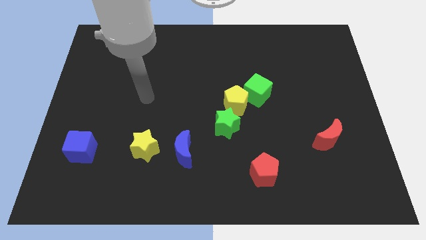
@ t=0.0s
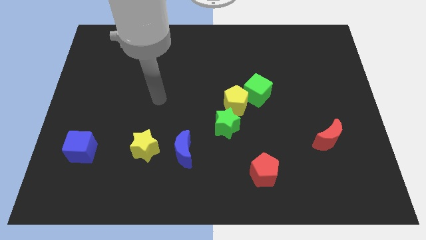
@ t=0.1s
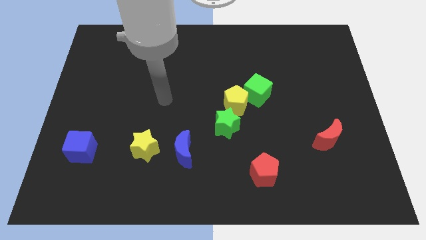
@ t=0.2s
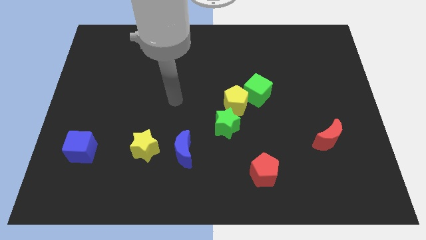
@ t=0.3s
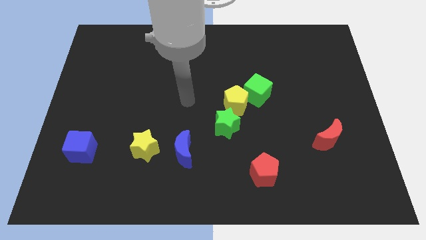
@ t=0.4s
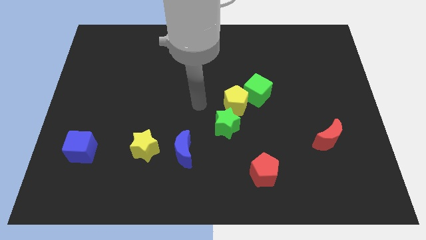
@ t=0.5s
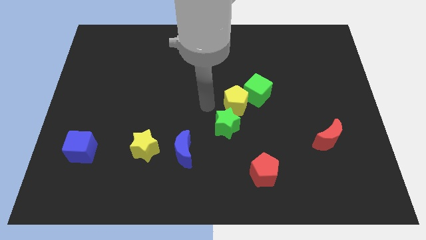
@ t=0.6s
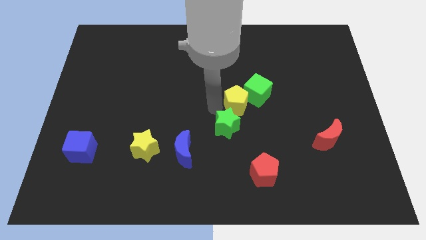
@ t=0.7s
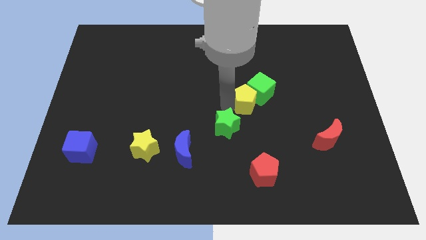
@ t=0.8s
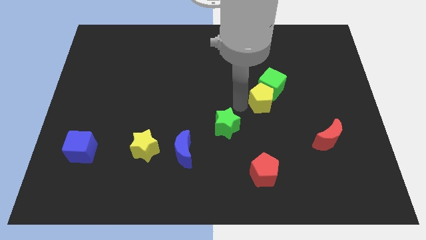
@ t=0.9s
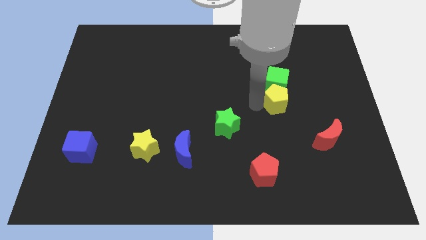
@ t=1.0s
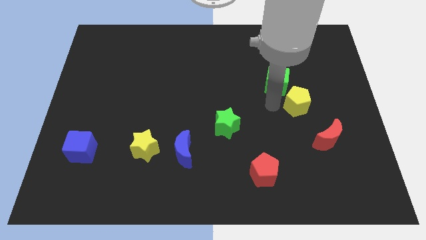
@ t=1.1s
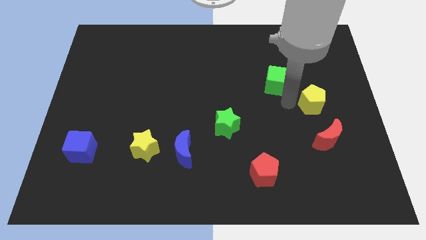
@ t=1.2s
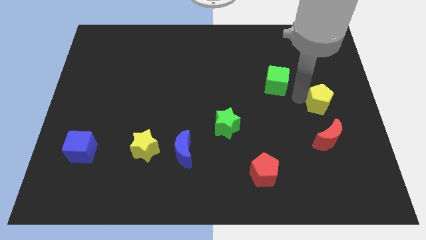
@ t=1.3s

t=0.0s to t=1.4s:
separate the green cube from the yellow pentagon

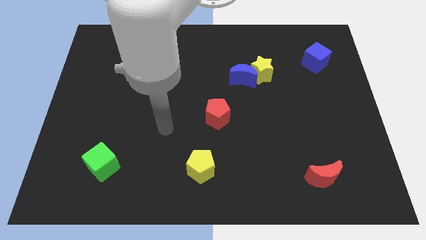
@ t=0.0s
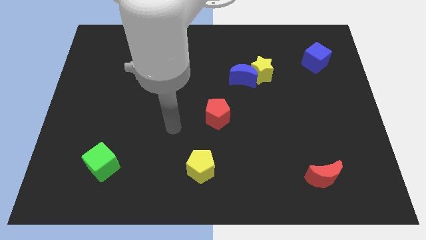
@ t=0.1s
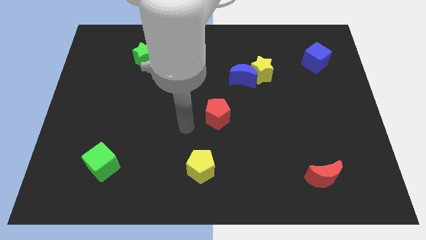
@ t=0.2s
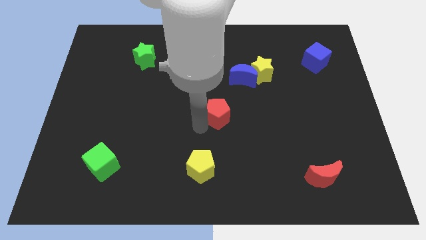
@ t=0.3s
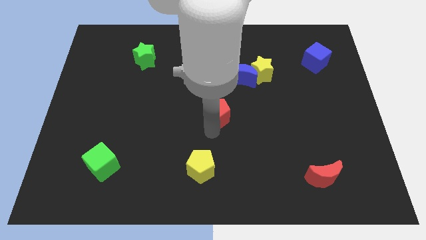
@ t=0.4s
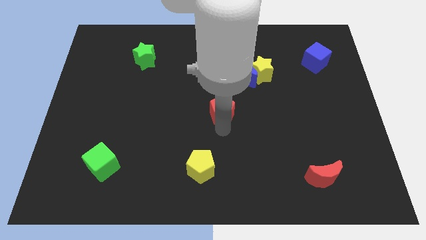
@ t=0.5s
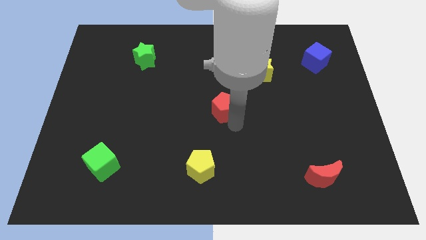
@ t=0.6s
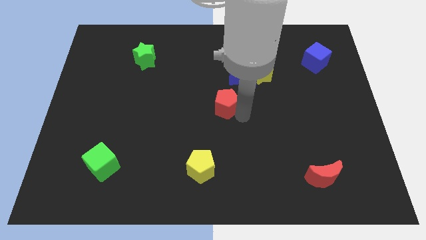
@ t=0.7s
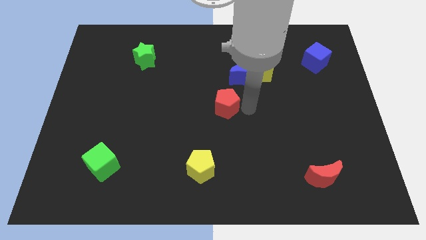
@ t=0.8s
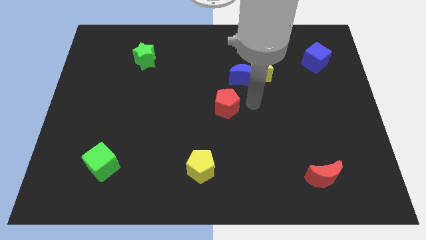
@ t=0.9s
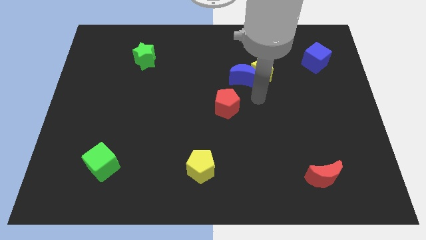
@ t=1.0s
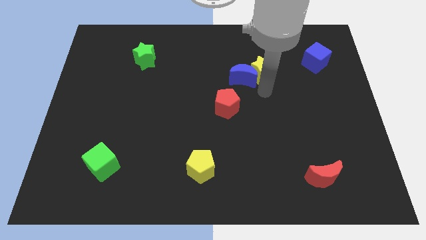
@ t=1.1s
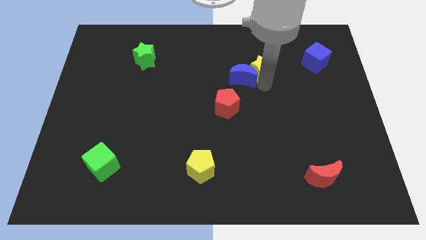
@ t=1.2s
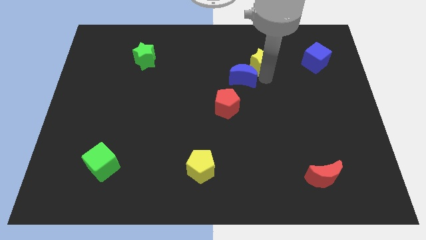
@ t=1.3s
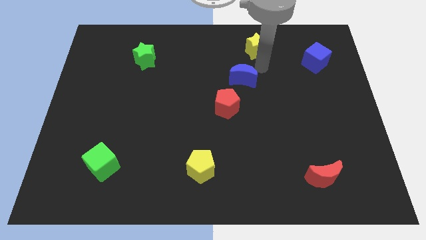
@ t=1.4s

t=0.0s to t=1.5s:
move the blue moon away from the yellow star

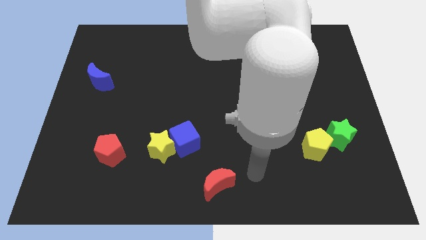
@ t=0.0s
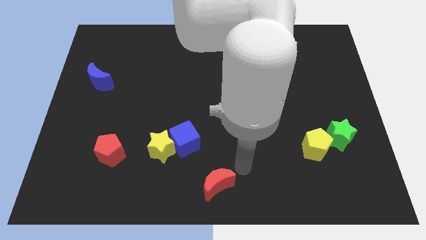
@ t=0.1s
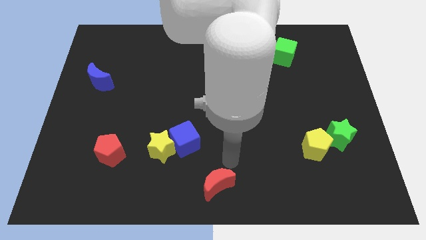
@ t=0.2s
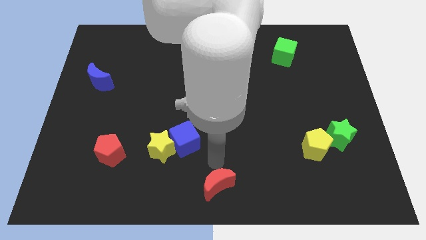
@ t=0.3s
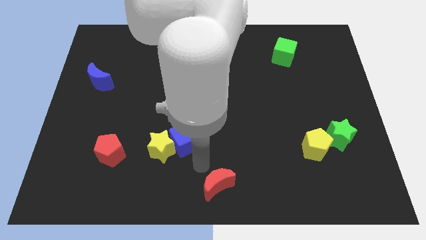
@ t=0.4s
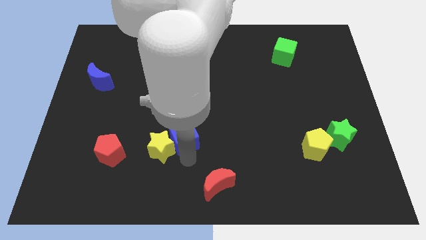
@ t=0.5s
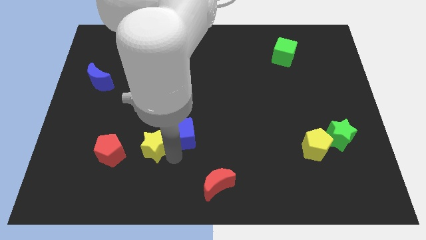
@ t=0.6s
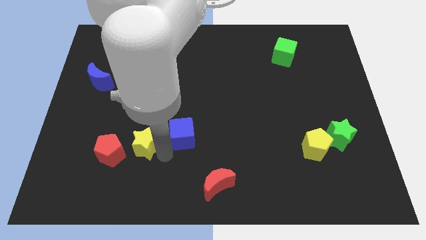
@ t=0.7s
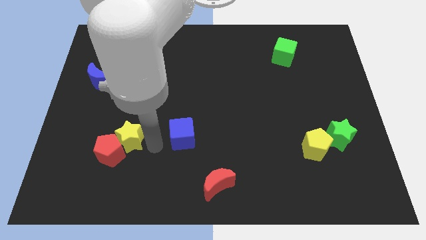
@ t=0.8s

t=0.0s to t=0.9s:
separate the blue cube from the yellow star

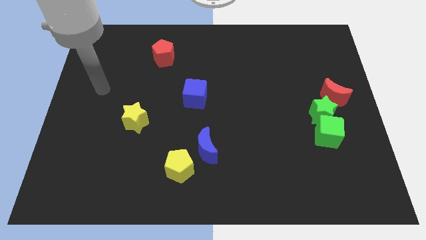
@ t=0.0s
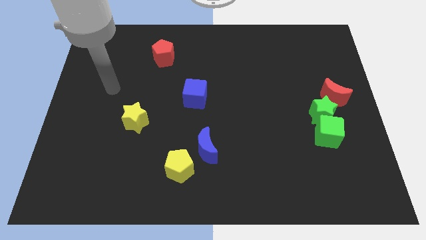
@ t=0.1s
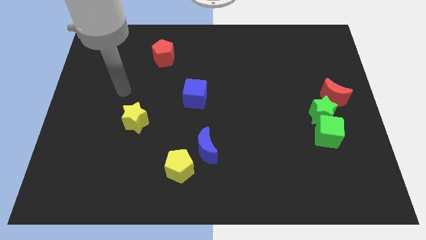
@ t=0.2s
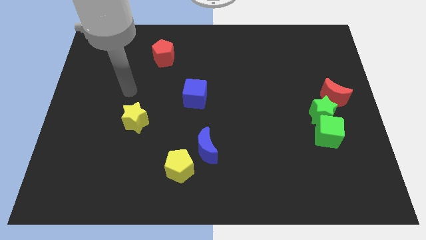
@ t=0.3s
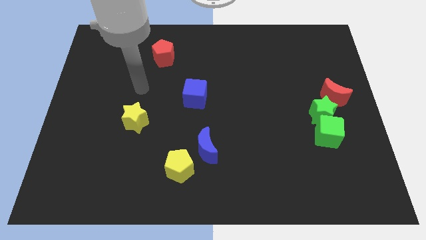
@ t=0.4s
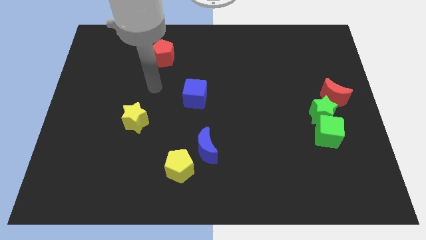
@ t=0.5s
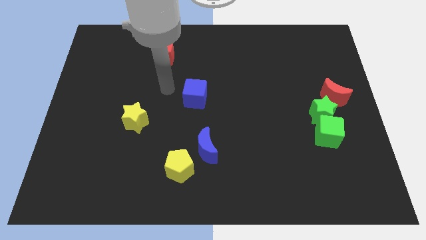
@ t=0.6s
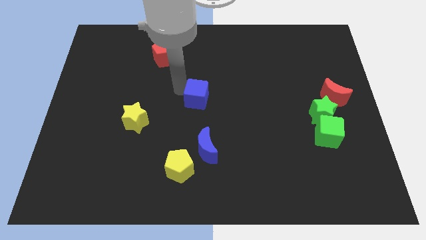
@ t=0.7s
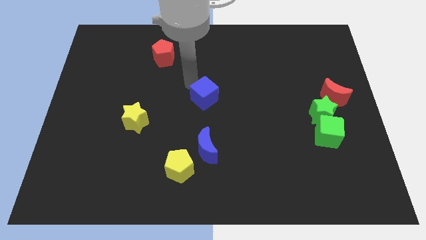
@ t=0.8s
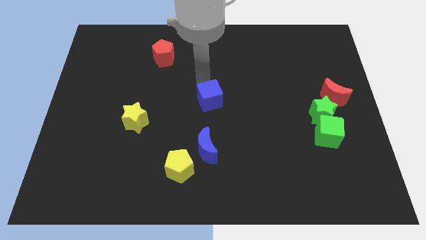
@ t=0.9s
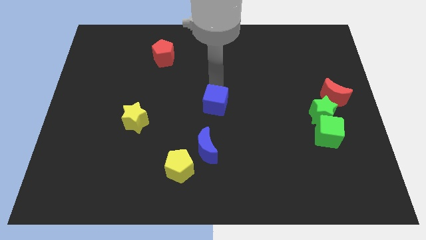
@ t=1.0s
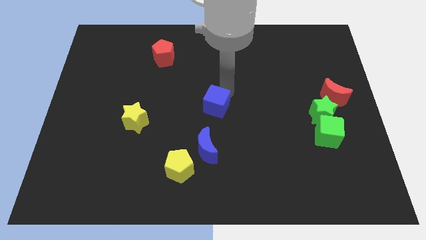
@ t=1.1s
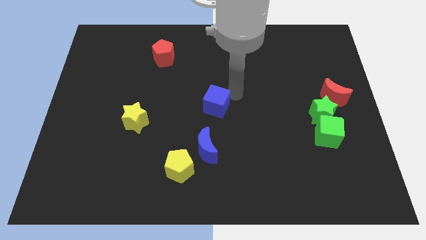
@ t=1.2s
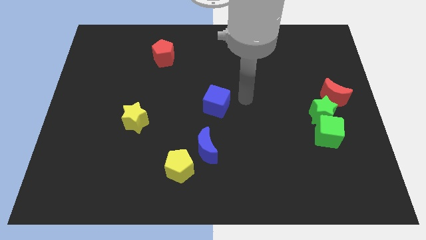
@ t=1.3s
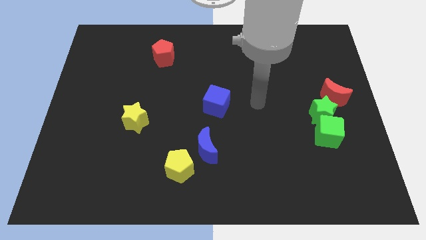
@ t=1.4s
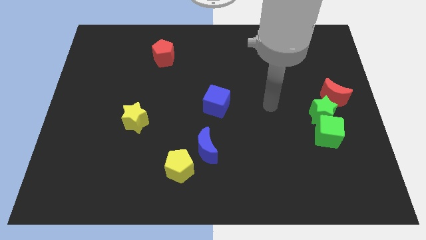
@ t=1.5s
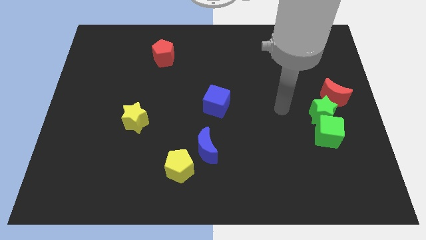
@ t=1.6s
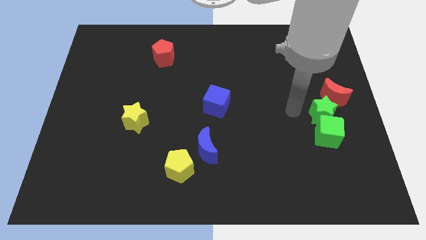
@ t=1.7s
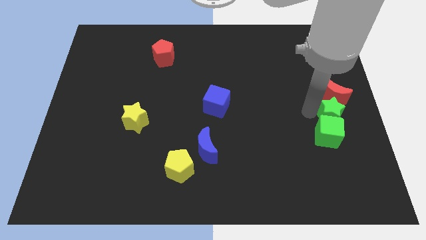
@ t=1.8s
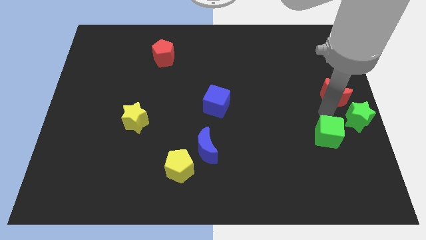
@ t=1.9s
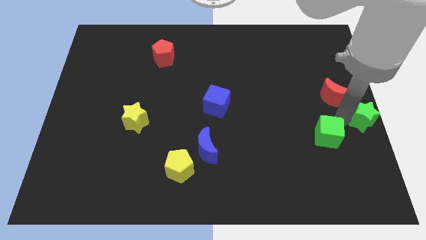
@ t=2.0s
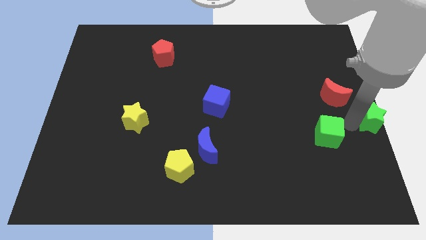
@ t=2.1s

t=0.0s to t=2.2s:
pull the green cube apart from the green star

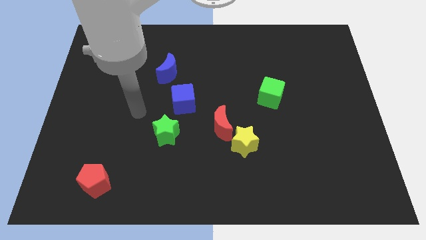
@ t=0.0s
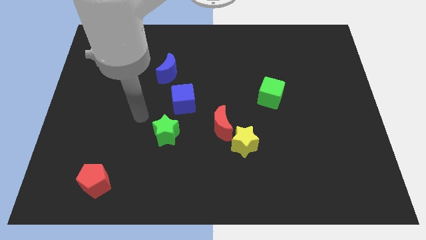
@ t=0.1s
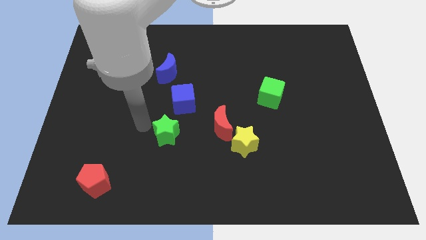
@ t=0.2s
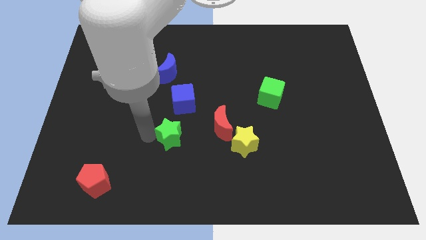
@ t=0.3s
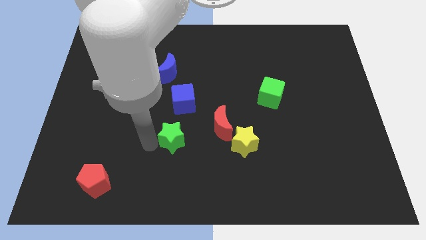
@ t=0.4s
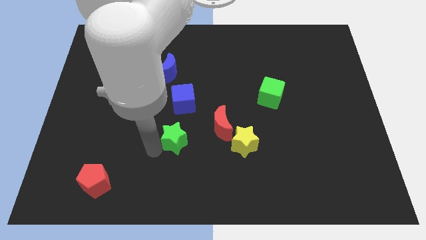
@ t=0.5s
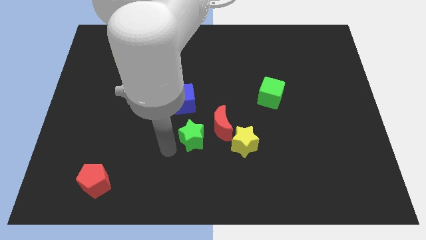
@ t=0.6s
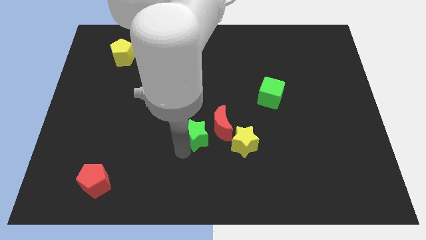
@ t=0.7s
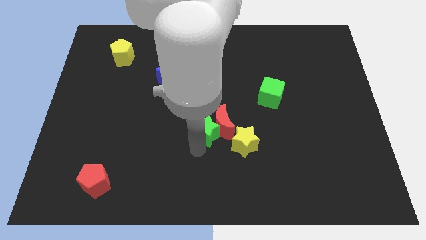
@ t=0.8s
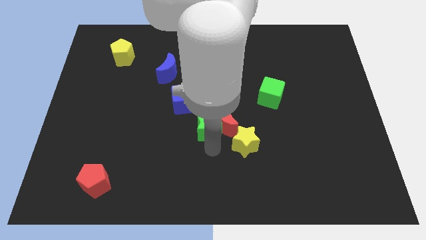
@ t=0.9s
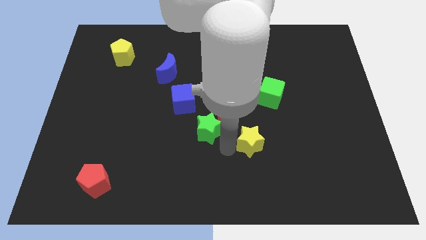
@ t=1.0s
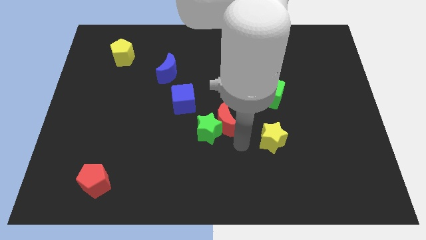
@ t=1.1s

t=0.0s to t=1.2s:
pull the red moon apart from the yellow star

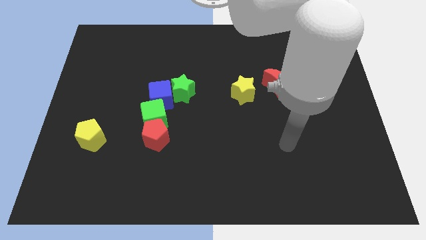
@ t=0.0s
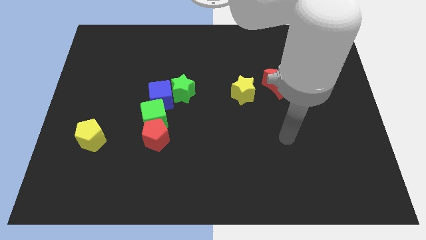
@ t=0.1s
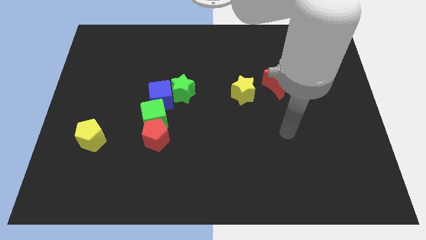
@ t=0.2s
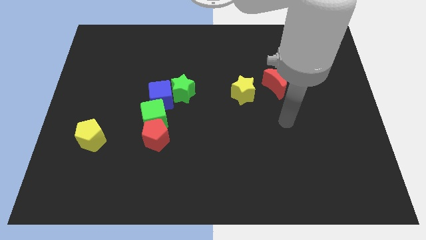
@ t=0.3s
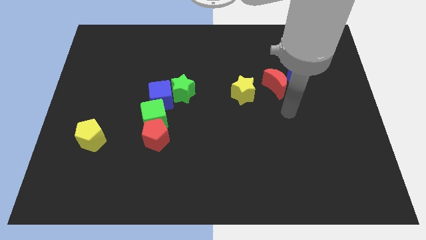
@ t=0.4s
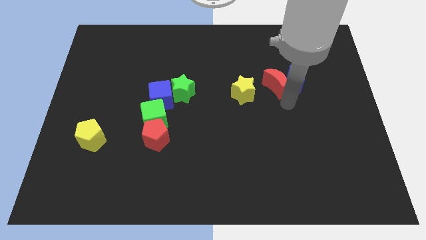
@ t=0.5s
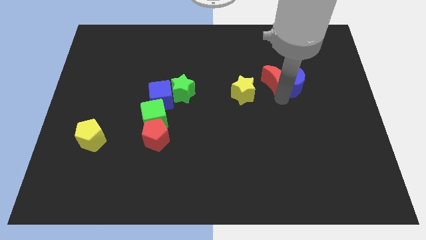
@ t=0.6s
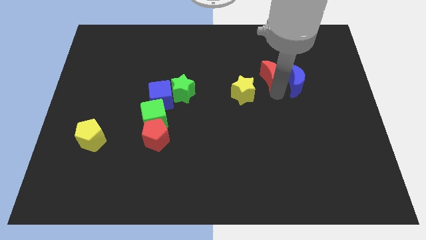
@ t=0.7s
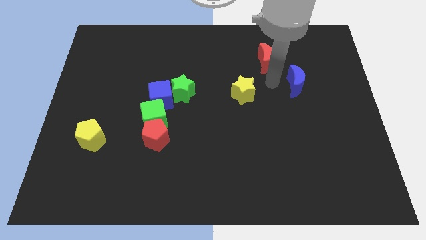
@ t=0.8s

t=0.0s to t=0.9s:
move the blue moon away from the red moon

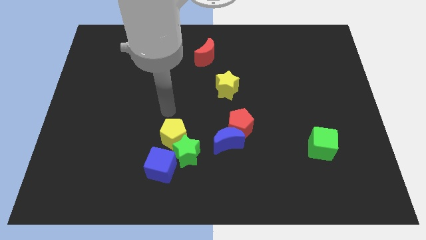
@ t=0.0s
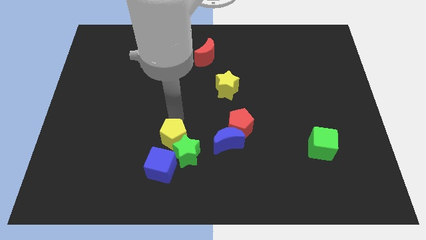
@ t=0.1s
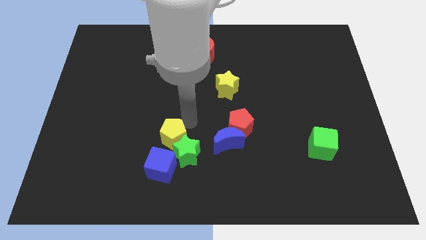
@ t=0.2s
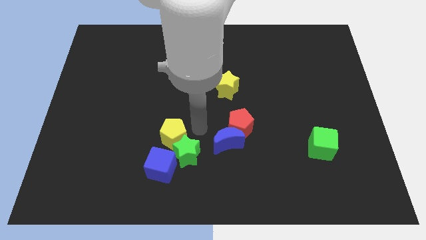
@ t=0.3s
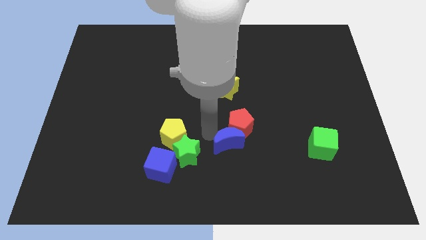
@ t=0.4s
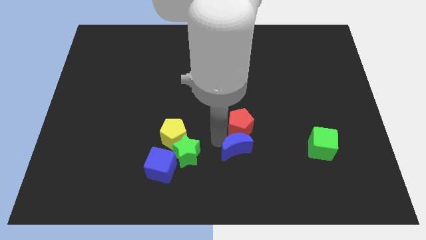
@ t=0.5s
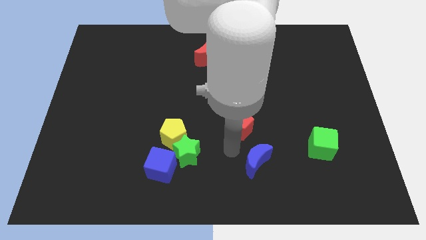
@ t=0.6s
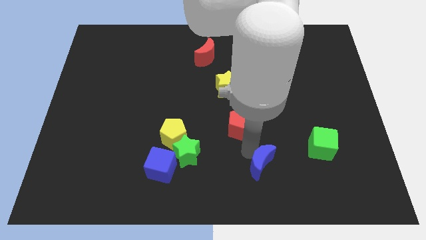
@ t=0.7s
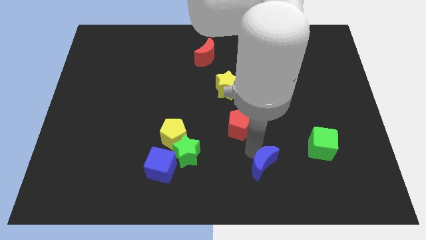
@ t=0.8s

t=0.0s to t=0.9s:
separate the red pentagon from the blue moon

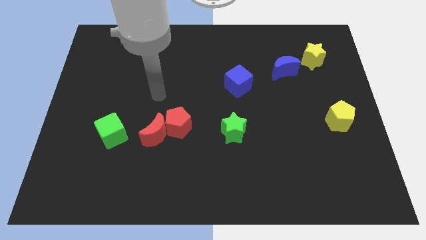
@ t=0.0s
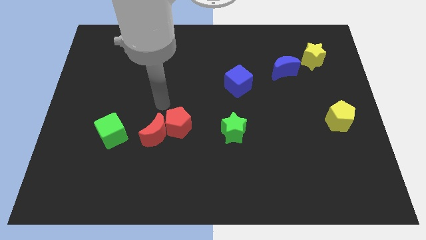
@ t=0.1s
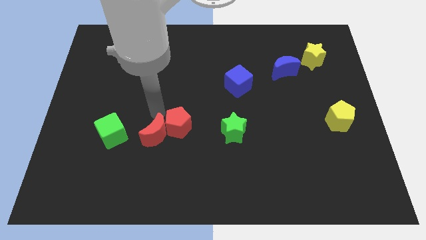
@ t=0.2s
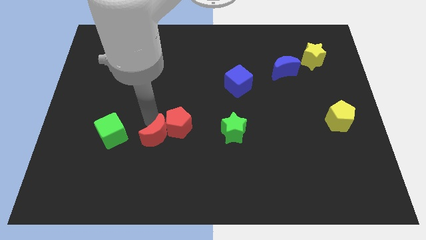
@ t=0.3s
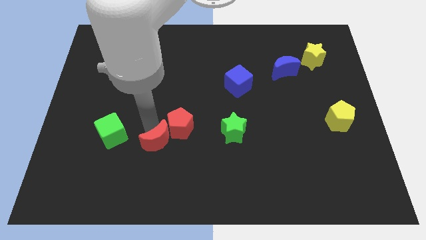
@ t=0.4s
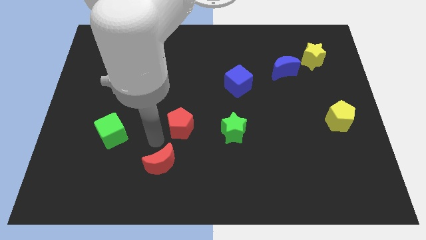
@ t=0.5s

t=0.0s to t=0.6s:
pull the red pentagon apart from the red moon
